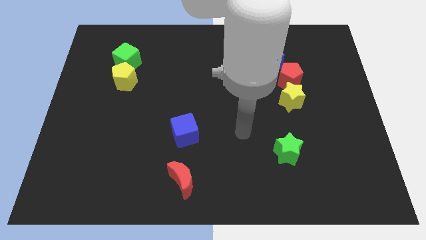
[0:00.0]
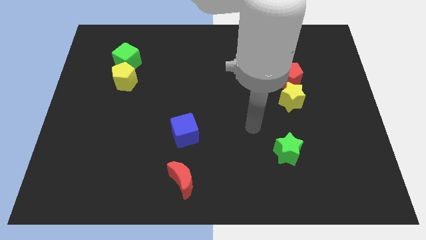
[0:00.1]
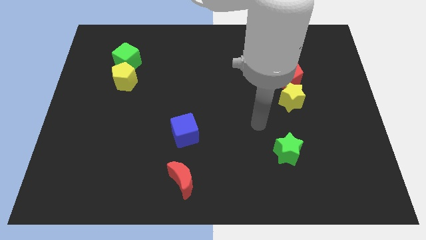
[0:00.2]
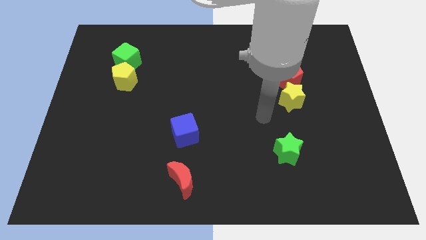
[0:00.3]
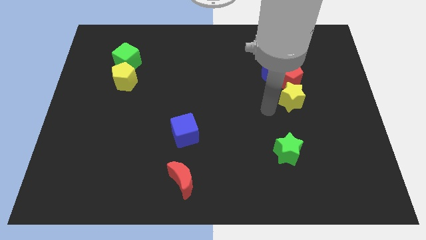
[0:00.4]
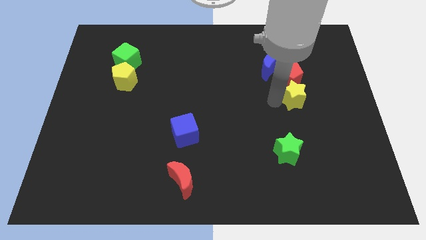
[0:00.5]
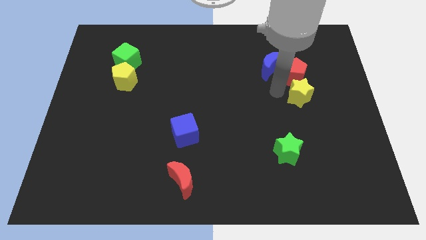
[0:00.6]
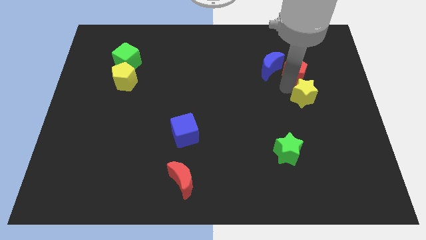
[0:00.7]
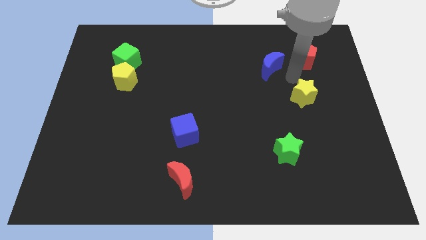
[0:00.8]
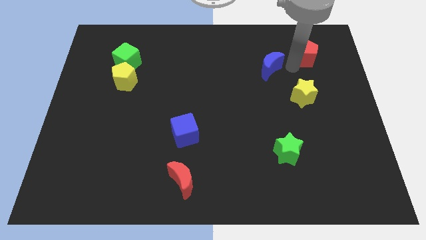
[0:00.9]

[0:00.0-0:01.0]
pull the blue moon apart from the red pentagon

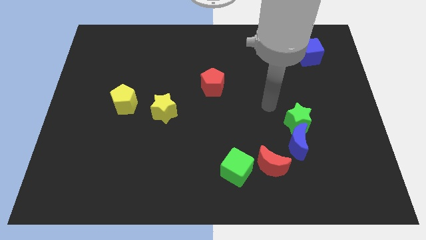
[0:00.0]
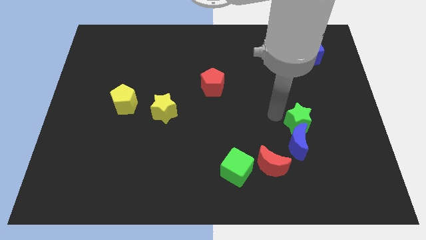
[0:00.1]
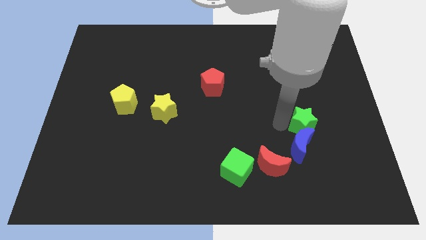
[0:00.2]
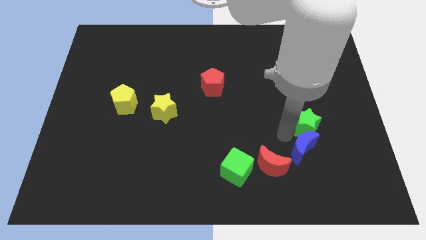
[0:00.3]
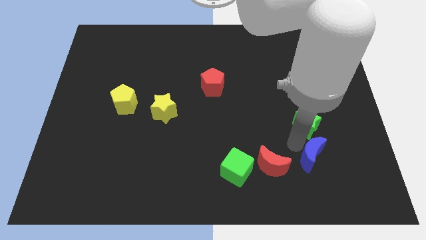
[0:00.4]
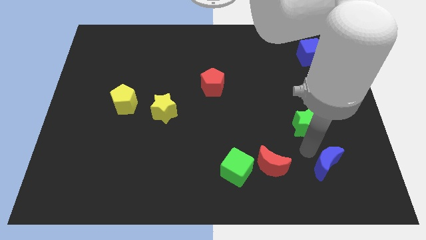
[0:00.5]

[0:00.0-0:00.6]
separate the green star from the blue moon

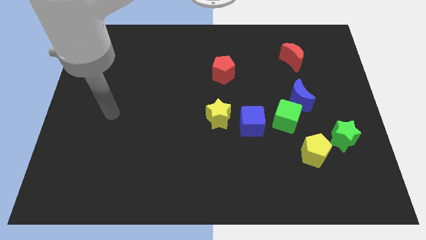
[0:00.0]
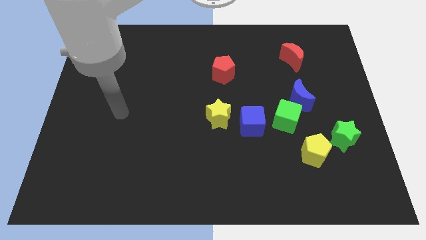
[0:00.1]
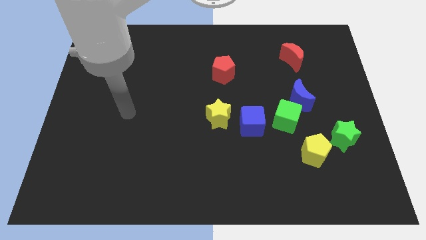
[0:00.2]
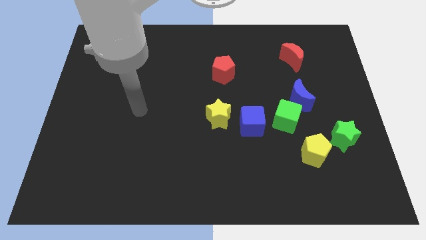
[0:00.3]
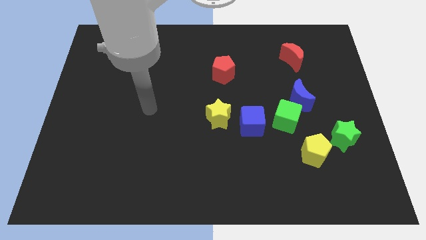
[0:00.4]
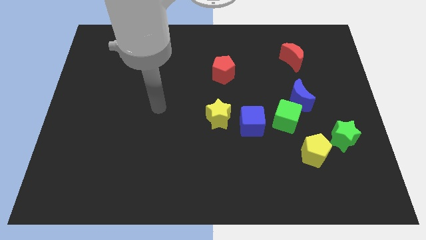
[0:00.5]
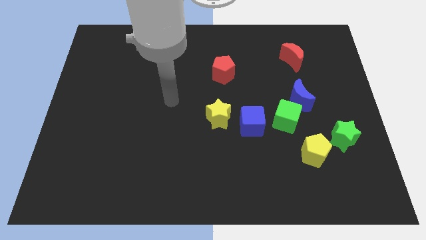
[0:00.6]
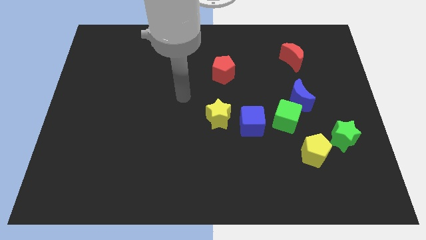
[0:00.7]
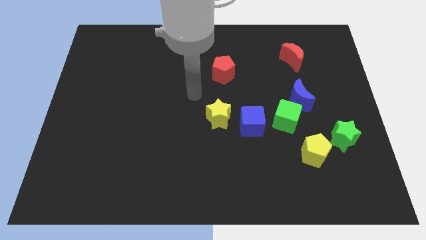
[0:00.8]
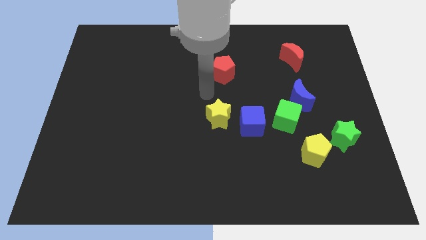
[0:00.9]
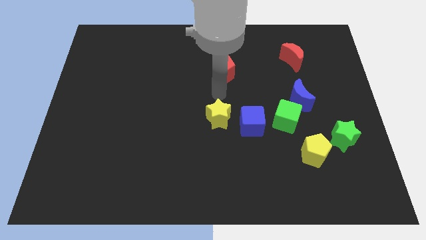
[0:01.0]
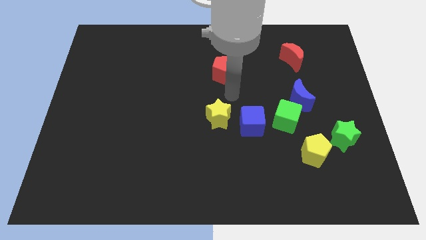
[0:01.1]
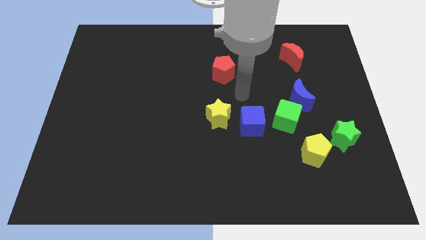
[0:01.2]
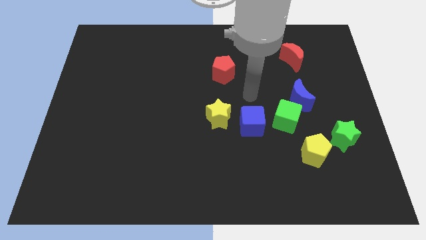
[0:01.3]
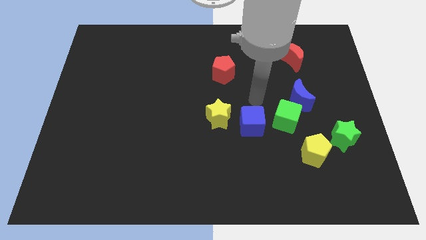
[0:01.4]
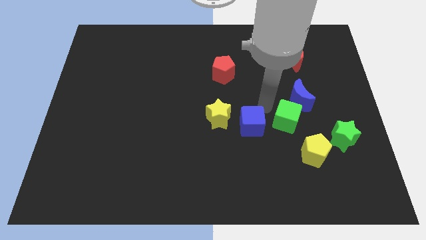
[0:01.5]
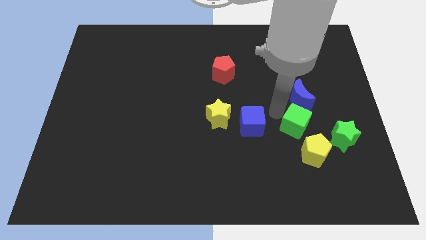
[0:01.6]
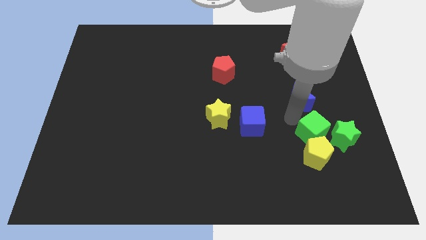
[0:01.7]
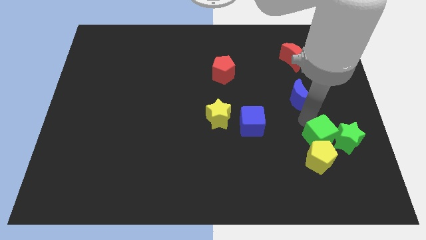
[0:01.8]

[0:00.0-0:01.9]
move the blue moon away from the green cube

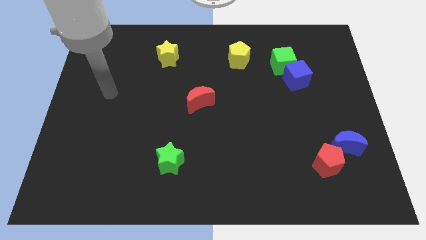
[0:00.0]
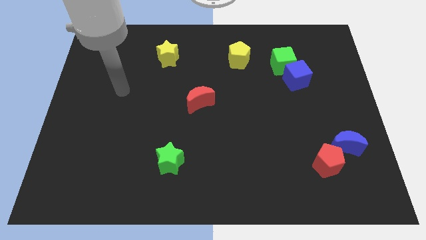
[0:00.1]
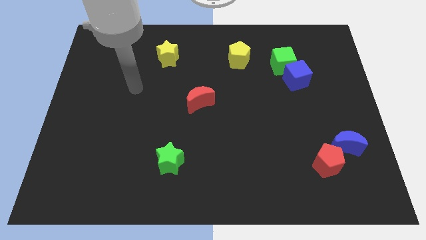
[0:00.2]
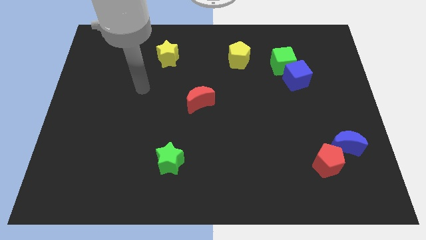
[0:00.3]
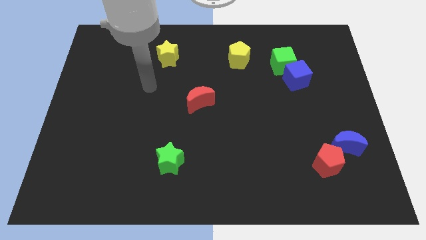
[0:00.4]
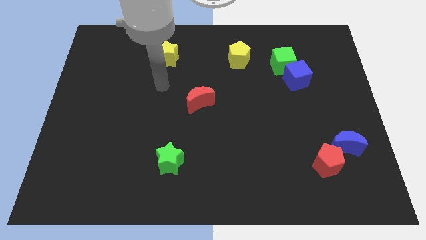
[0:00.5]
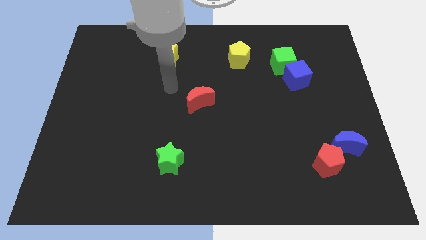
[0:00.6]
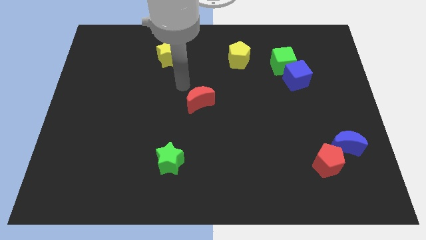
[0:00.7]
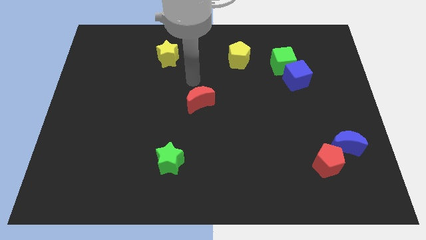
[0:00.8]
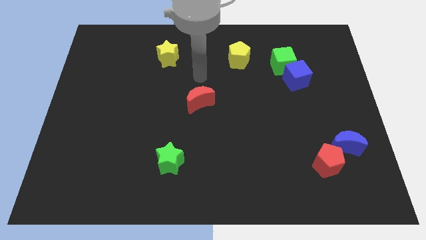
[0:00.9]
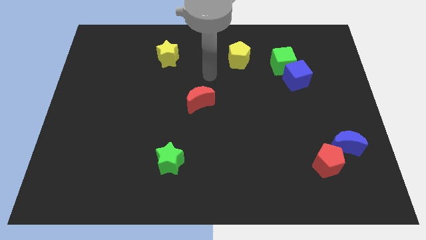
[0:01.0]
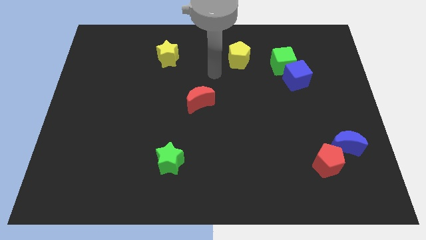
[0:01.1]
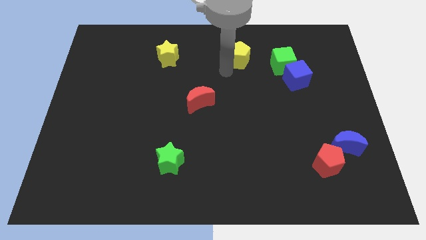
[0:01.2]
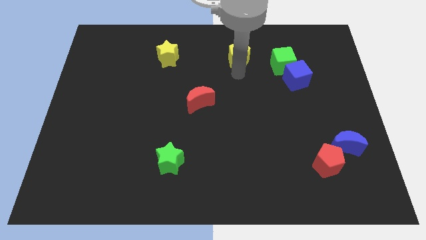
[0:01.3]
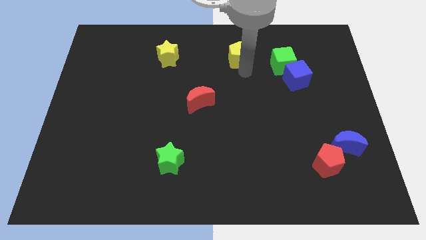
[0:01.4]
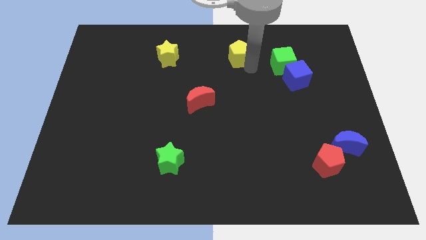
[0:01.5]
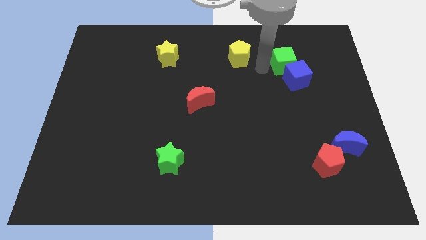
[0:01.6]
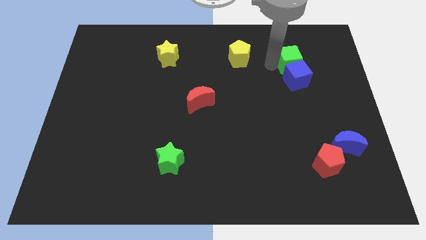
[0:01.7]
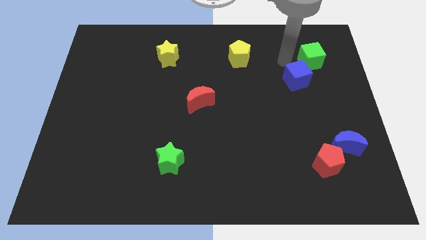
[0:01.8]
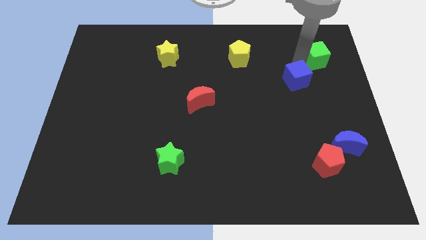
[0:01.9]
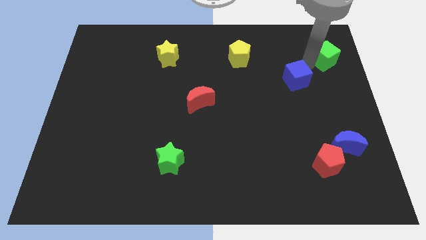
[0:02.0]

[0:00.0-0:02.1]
move the blue cube away from the green cube

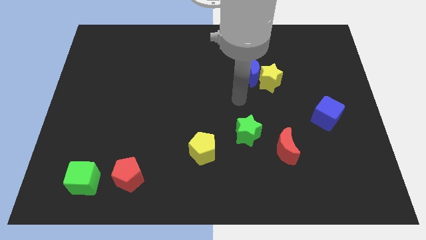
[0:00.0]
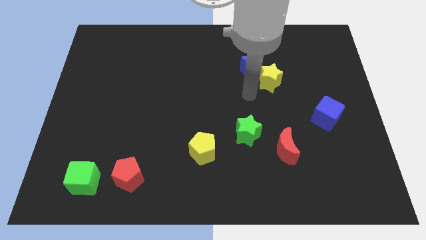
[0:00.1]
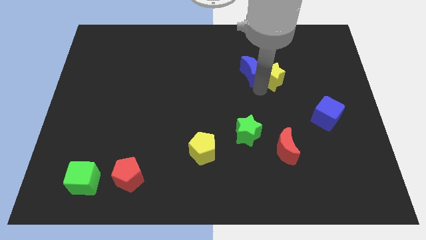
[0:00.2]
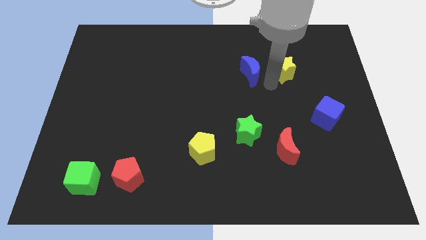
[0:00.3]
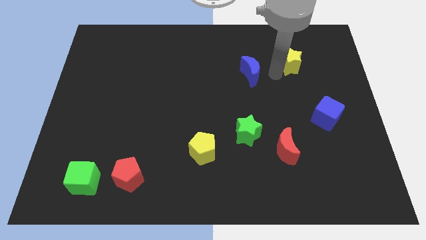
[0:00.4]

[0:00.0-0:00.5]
move the blue moon away from the yellow star

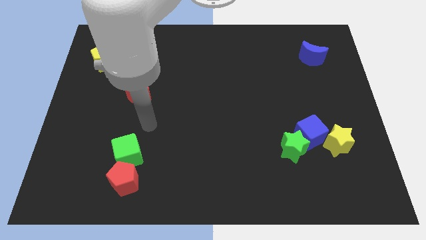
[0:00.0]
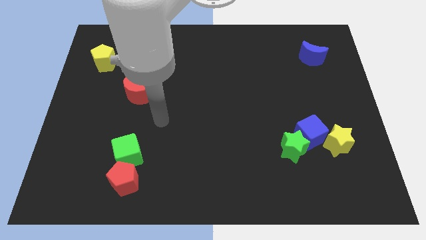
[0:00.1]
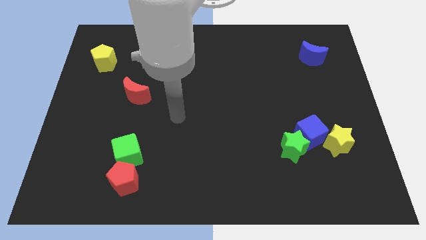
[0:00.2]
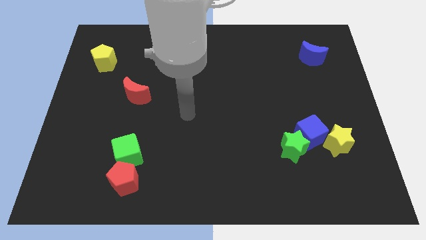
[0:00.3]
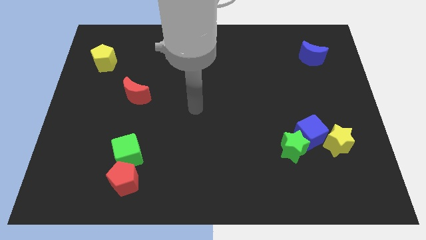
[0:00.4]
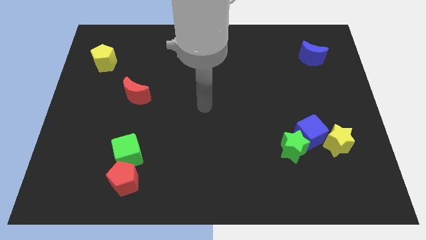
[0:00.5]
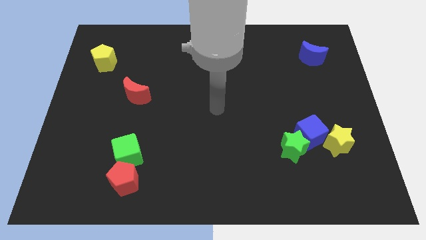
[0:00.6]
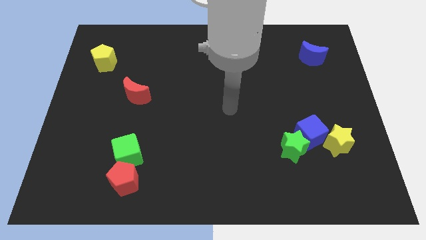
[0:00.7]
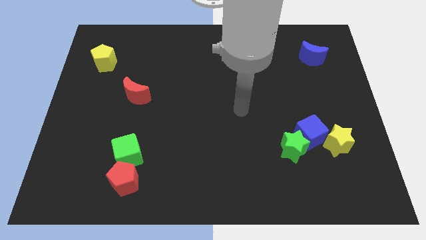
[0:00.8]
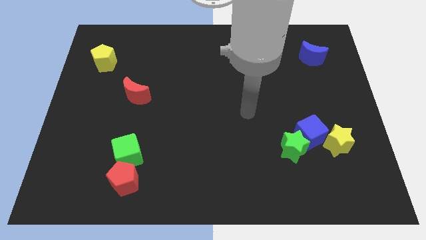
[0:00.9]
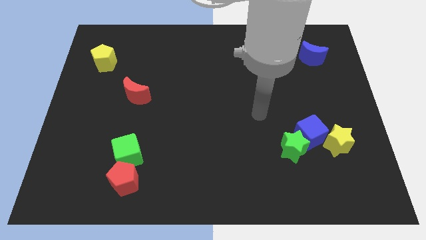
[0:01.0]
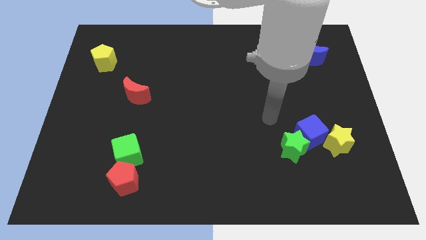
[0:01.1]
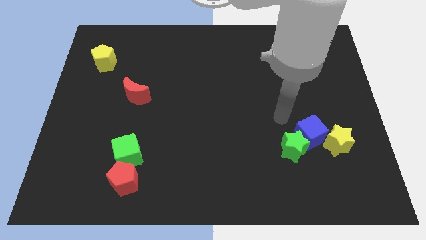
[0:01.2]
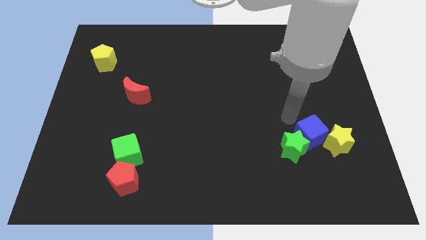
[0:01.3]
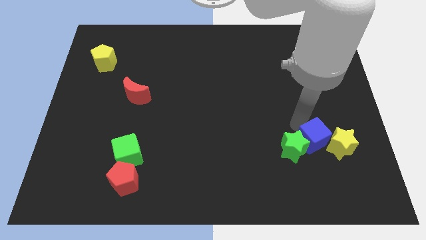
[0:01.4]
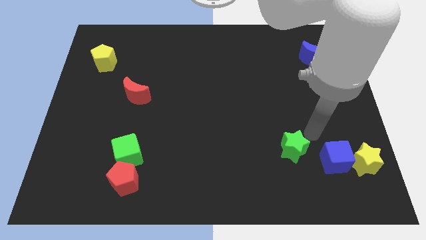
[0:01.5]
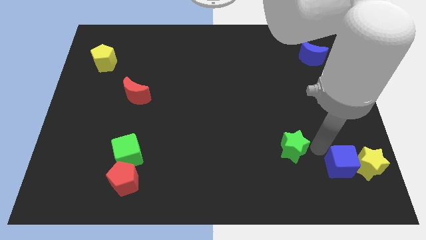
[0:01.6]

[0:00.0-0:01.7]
pull the green star apart from the blue cube

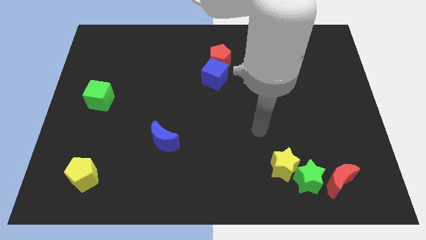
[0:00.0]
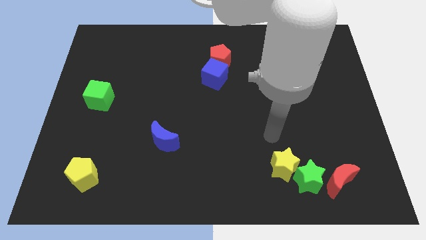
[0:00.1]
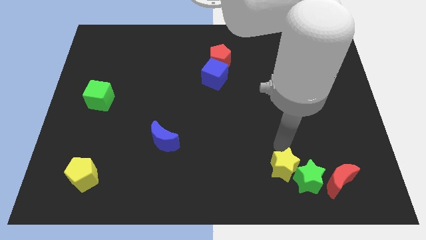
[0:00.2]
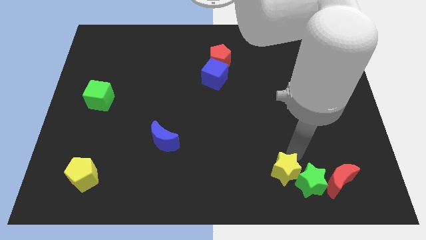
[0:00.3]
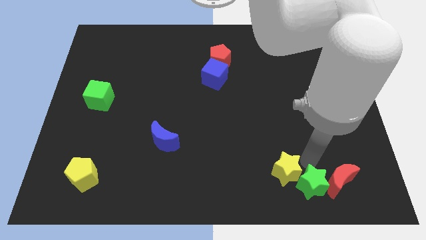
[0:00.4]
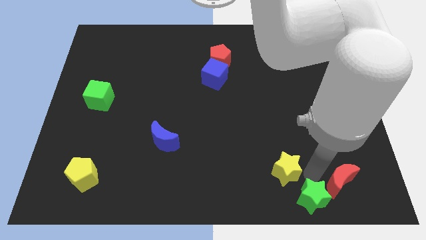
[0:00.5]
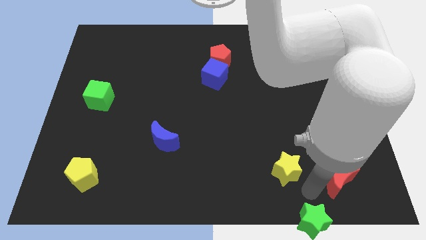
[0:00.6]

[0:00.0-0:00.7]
separate the yellow star from the green star

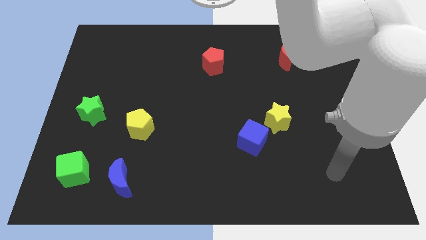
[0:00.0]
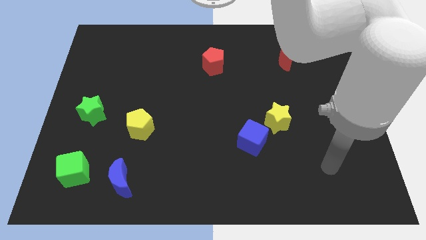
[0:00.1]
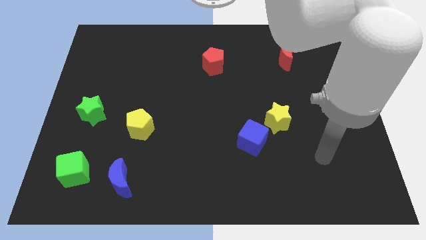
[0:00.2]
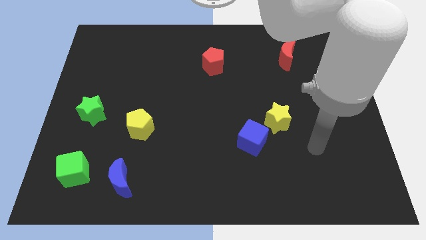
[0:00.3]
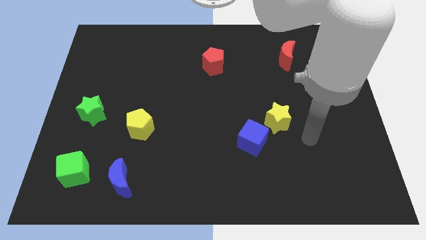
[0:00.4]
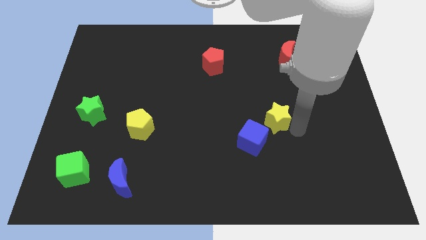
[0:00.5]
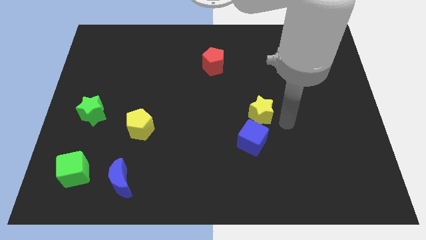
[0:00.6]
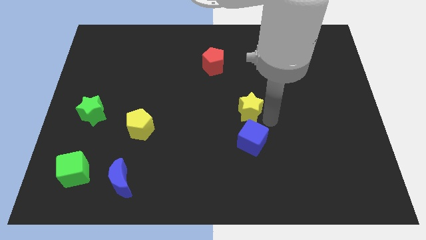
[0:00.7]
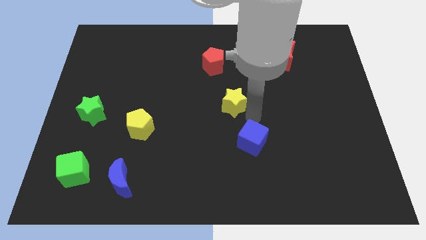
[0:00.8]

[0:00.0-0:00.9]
pull the blue cube apart from the yellow star
